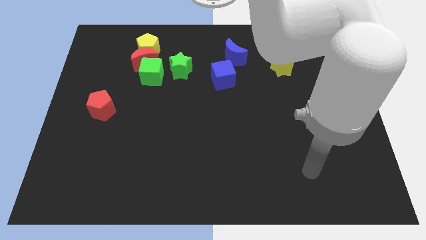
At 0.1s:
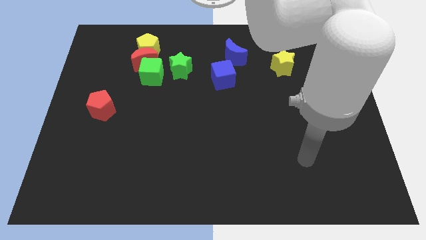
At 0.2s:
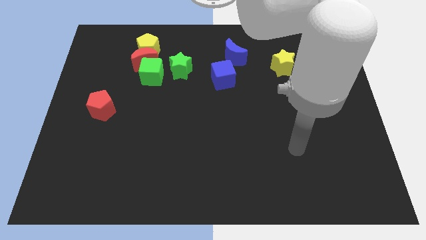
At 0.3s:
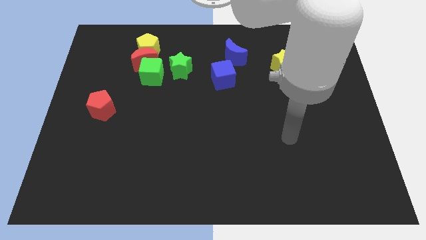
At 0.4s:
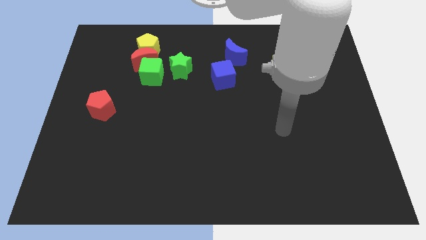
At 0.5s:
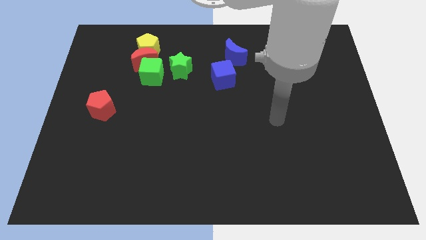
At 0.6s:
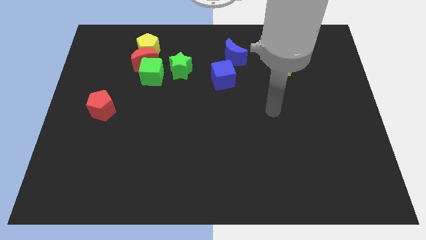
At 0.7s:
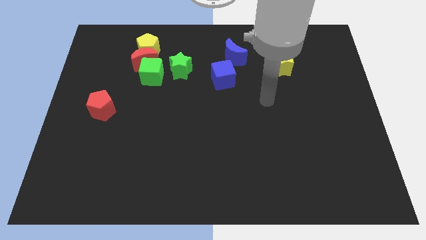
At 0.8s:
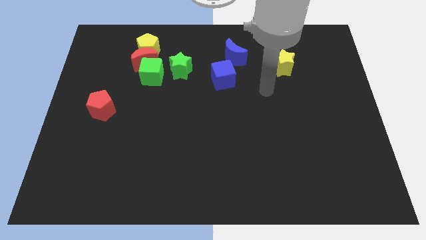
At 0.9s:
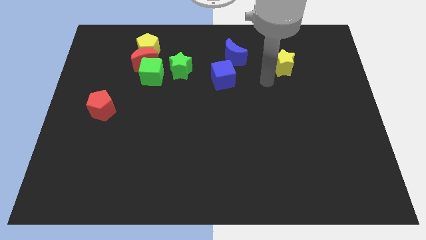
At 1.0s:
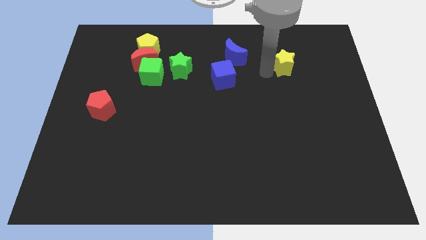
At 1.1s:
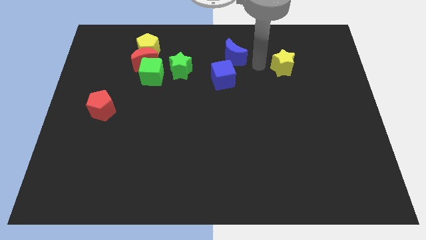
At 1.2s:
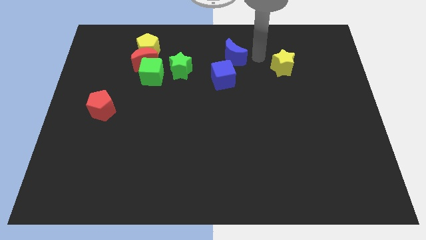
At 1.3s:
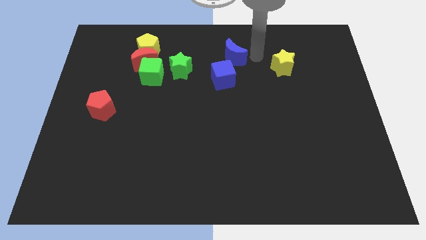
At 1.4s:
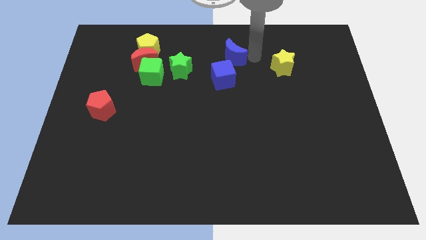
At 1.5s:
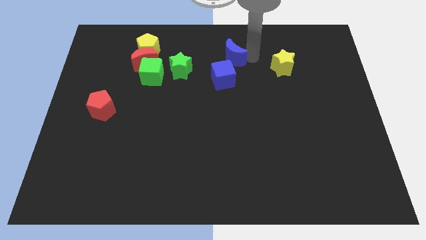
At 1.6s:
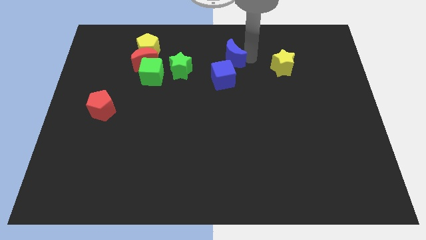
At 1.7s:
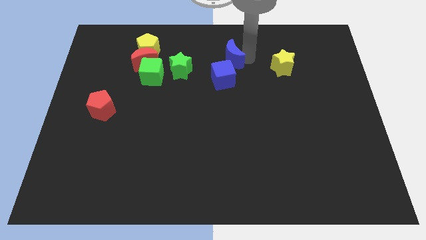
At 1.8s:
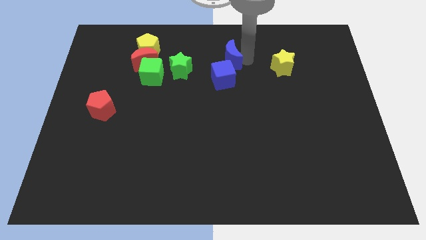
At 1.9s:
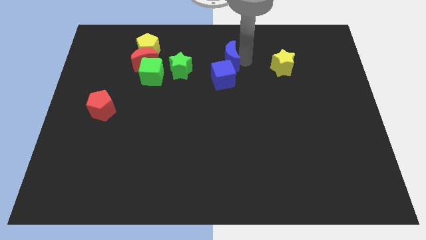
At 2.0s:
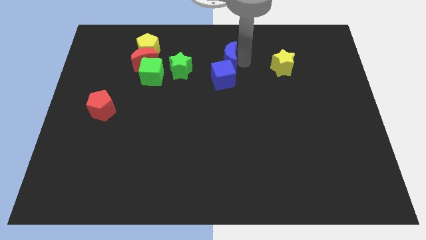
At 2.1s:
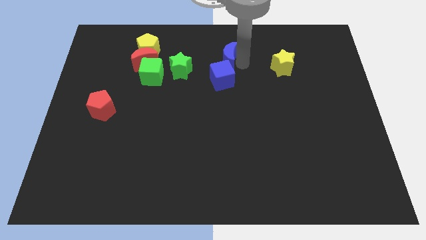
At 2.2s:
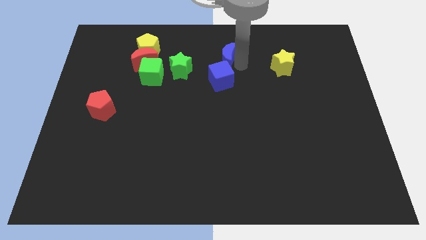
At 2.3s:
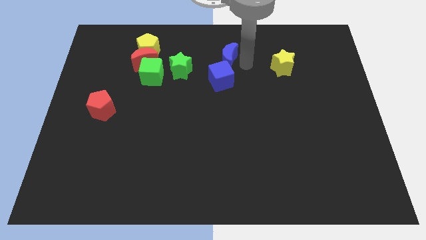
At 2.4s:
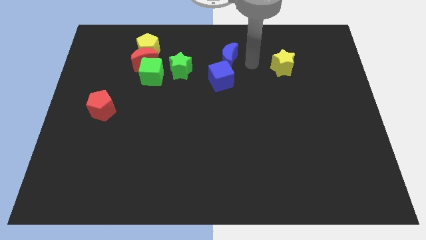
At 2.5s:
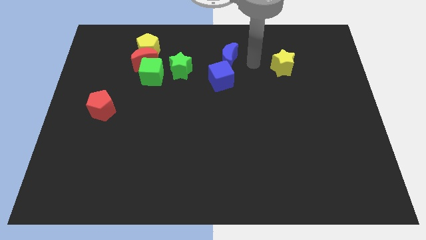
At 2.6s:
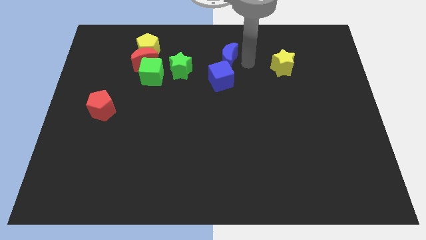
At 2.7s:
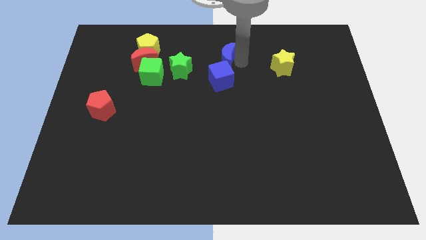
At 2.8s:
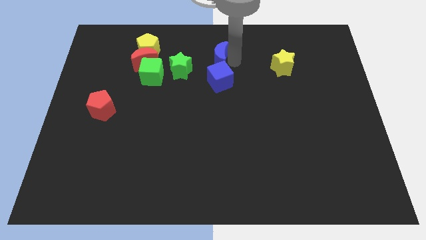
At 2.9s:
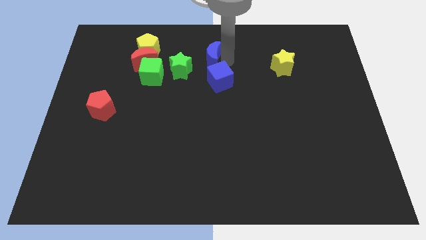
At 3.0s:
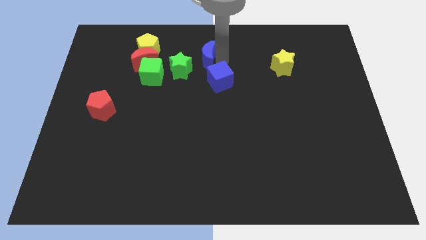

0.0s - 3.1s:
move the blue moon left a little

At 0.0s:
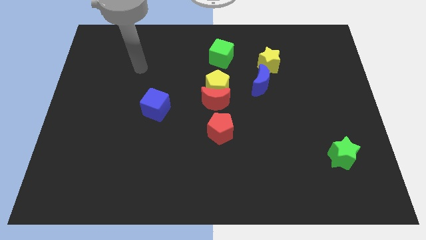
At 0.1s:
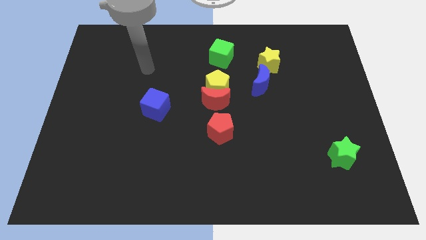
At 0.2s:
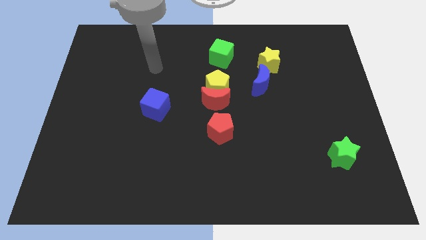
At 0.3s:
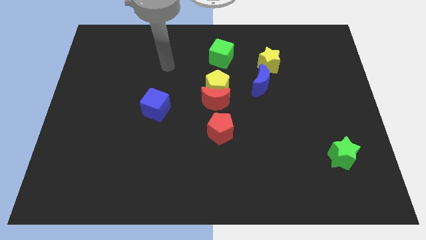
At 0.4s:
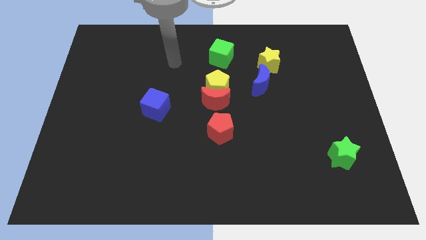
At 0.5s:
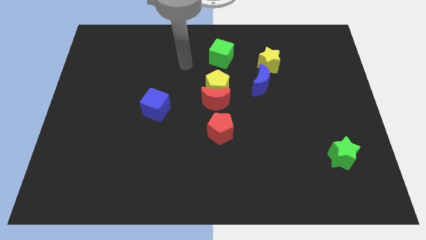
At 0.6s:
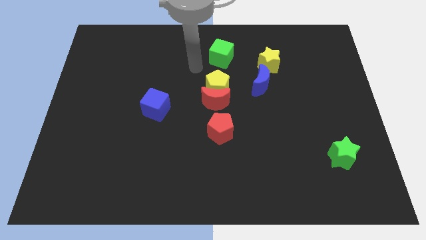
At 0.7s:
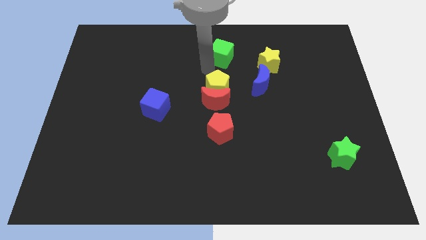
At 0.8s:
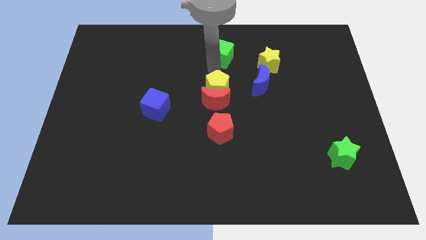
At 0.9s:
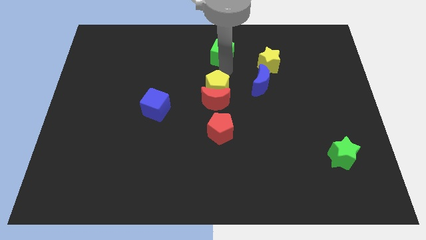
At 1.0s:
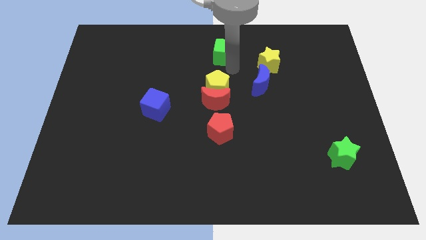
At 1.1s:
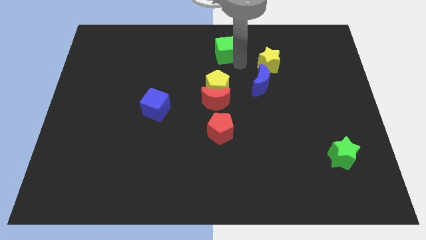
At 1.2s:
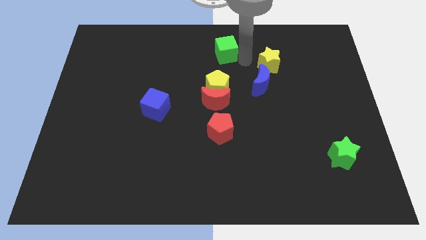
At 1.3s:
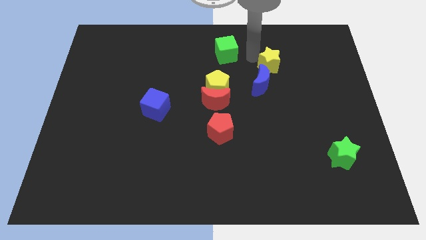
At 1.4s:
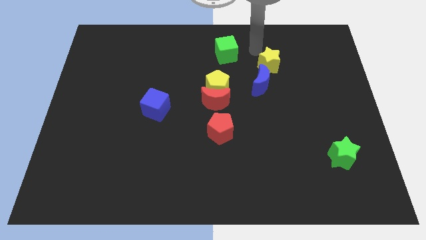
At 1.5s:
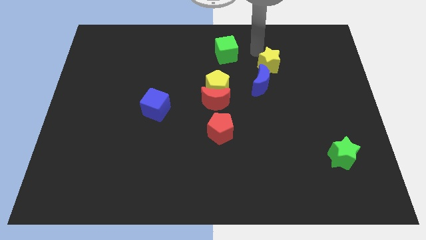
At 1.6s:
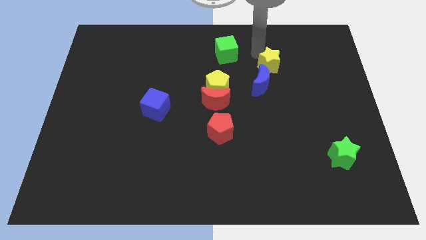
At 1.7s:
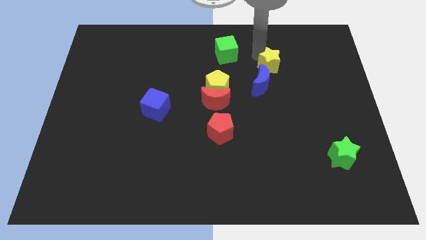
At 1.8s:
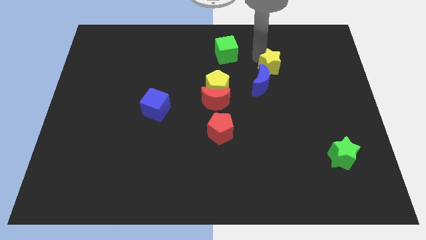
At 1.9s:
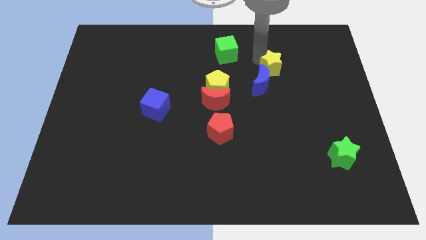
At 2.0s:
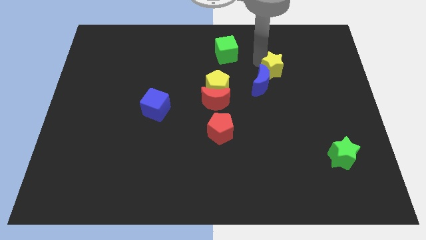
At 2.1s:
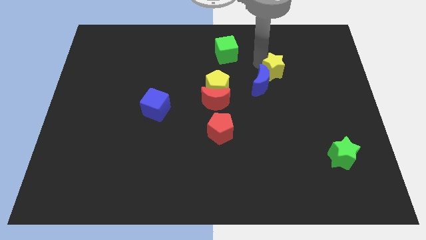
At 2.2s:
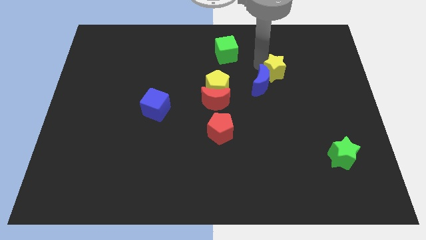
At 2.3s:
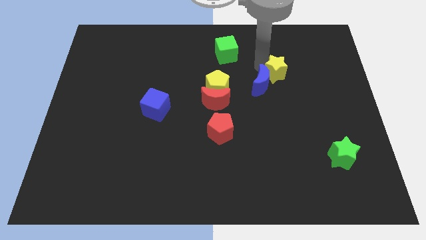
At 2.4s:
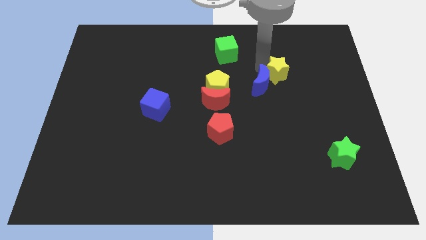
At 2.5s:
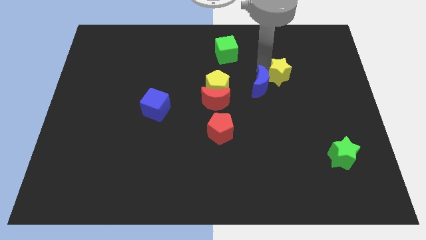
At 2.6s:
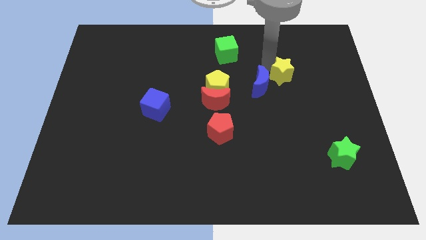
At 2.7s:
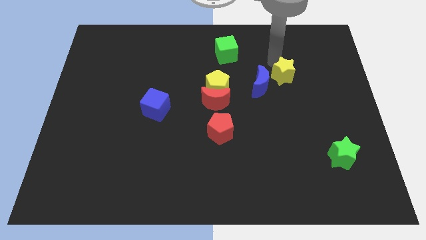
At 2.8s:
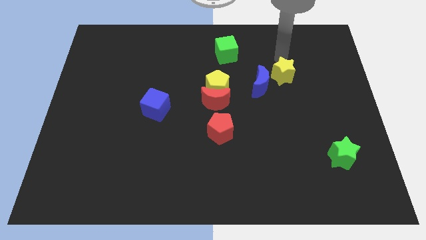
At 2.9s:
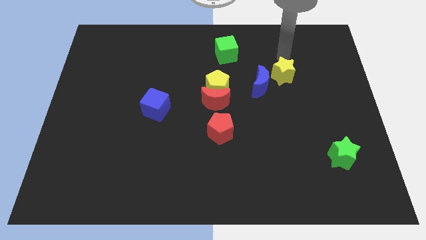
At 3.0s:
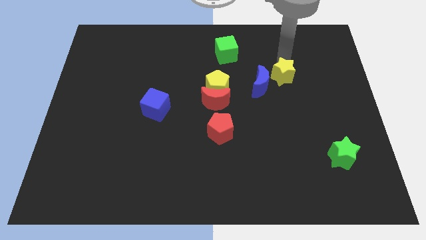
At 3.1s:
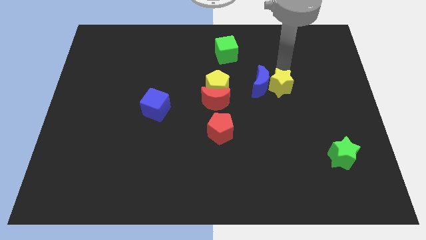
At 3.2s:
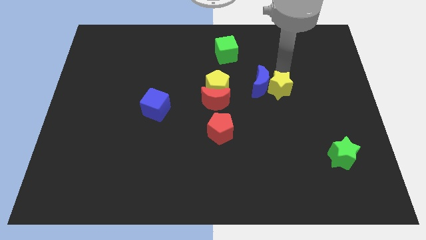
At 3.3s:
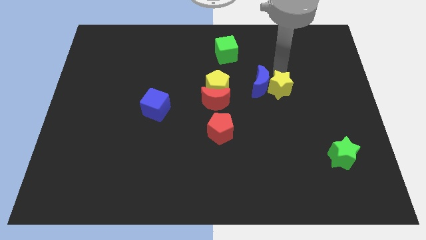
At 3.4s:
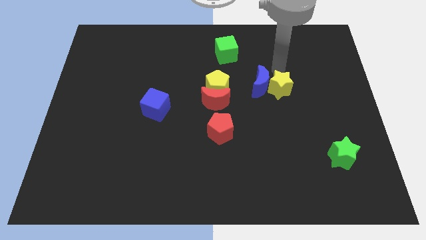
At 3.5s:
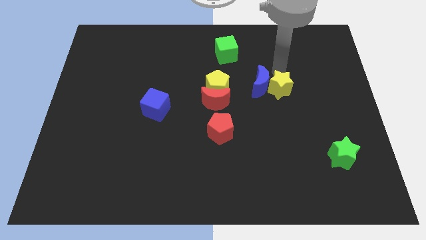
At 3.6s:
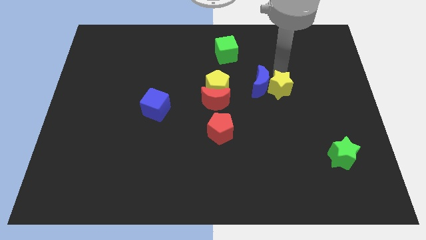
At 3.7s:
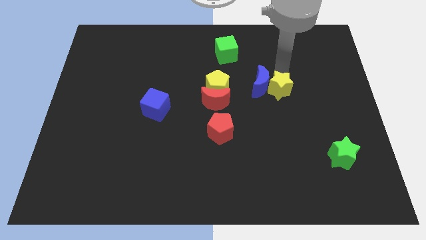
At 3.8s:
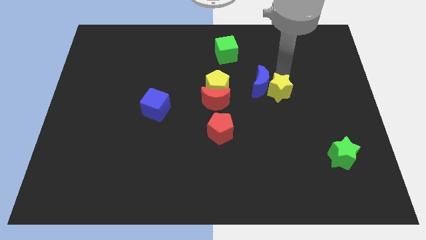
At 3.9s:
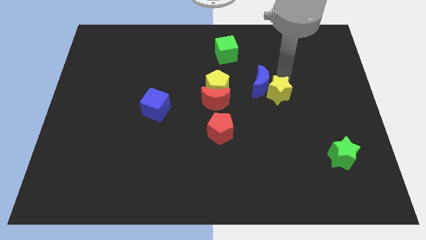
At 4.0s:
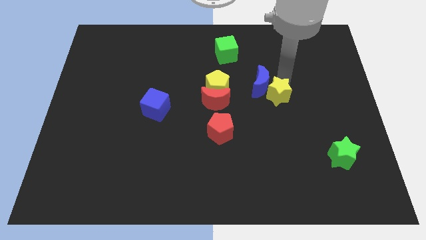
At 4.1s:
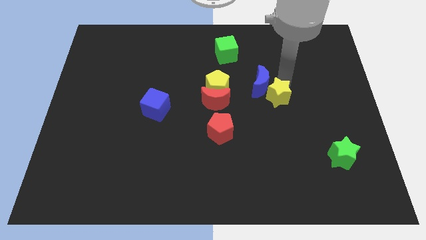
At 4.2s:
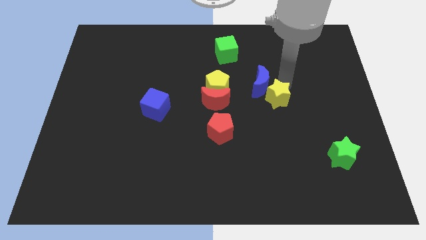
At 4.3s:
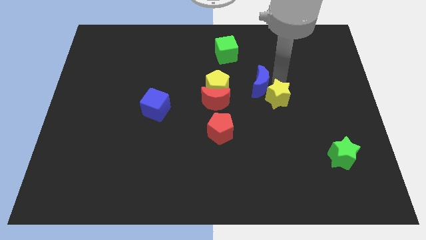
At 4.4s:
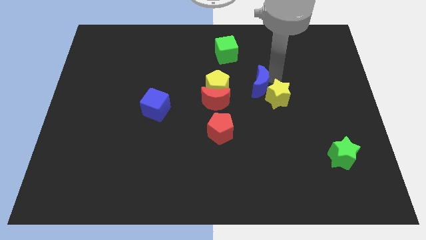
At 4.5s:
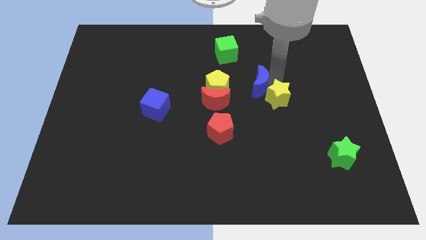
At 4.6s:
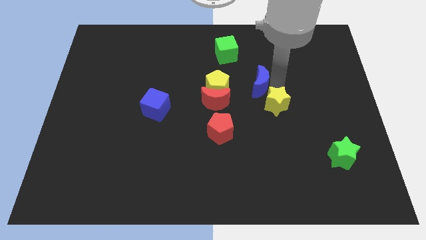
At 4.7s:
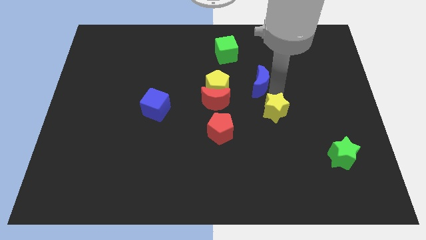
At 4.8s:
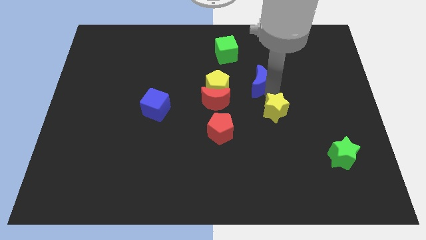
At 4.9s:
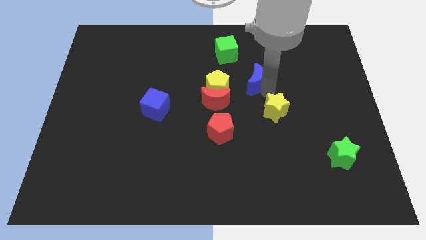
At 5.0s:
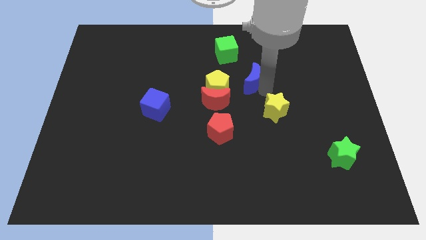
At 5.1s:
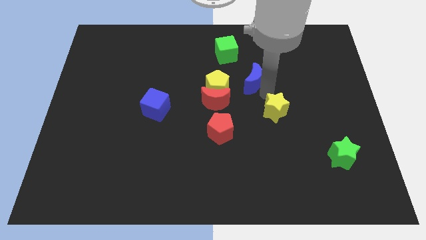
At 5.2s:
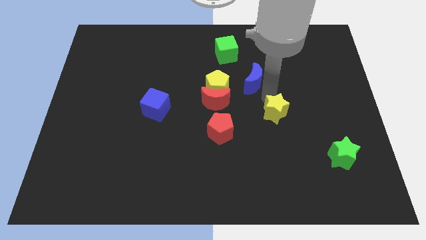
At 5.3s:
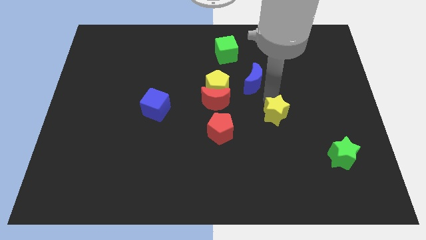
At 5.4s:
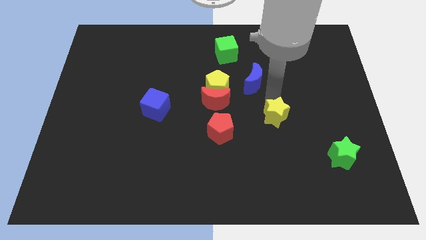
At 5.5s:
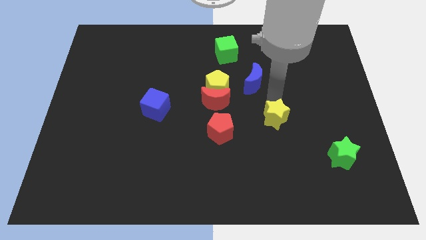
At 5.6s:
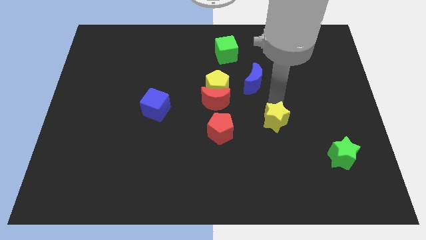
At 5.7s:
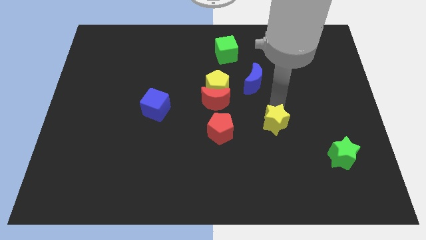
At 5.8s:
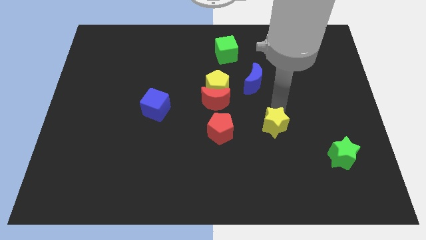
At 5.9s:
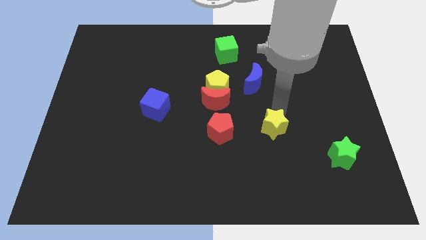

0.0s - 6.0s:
slide the yellow star down
